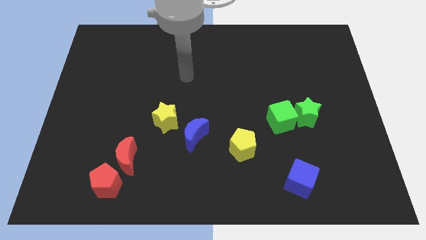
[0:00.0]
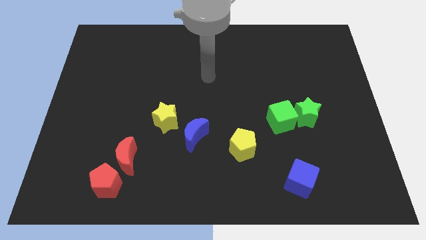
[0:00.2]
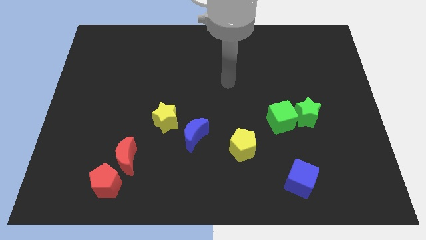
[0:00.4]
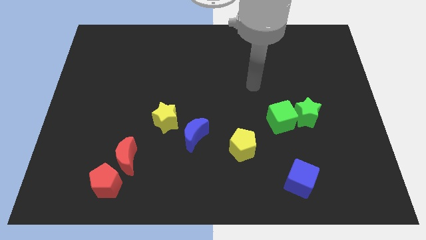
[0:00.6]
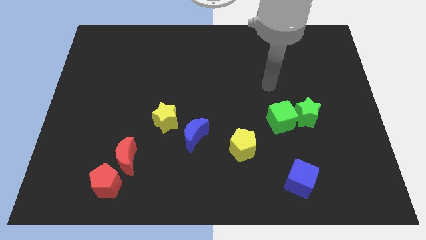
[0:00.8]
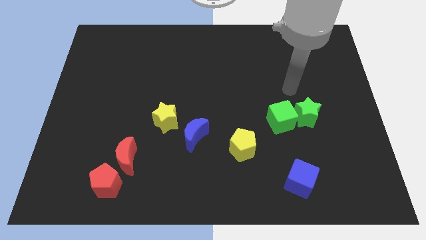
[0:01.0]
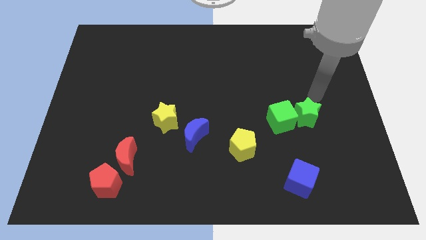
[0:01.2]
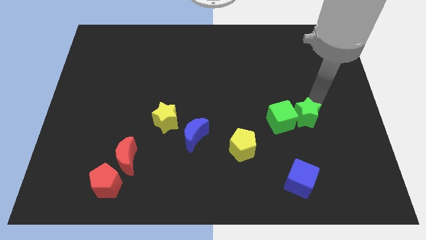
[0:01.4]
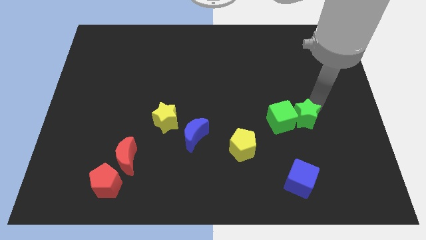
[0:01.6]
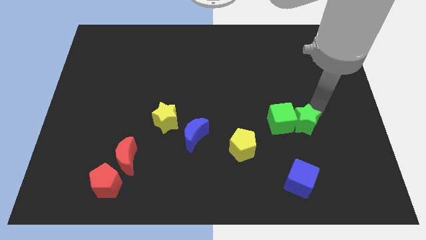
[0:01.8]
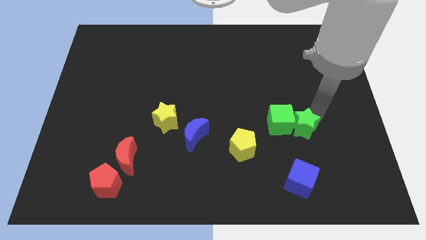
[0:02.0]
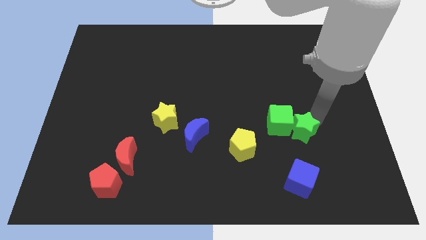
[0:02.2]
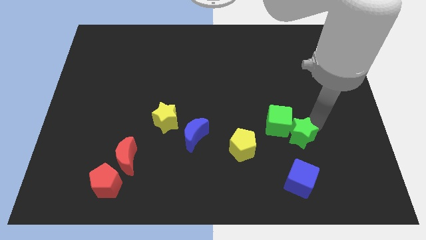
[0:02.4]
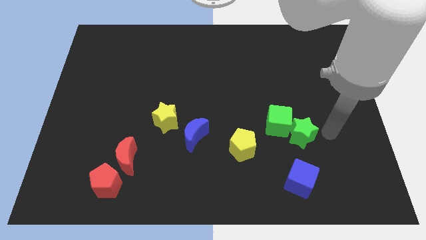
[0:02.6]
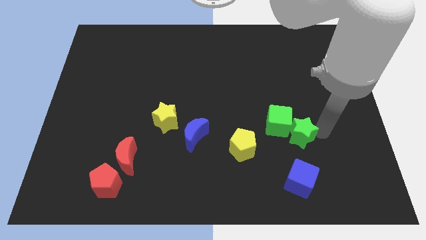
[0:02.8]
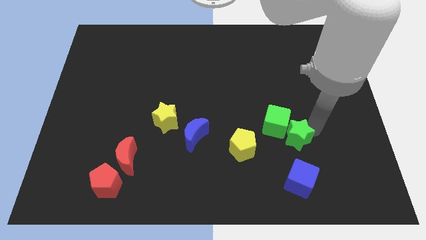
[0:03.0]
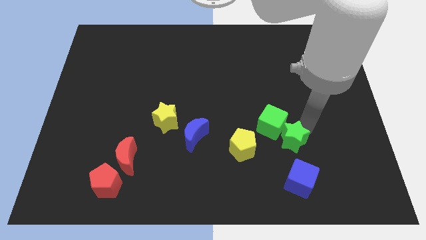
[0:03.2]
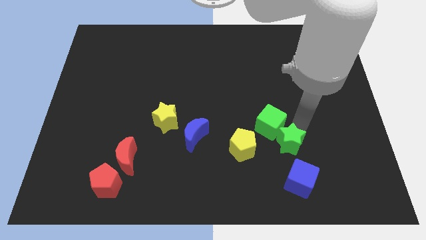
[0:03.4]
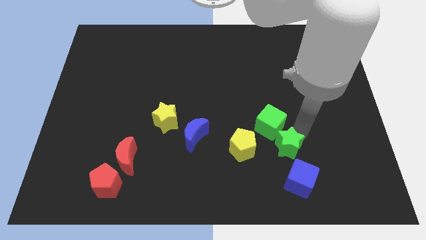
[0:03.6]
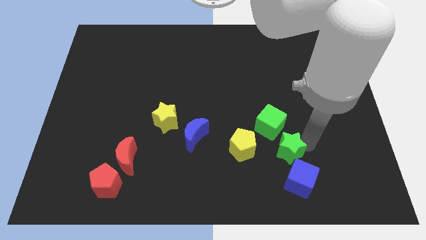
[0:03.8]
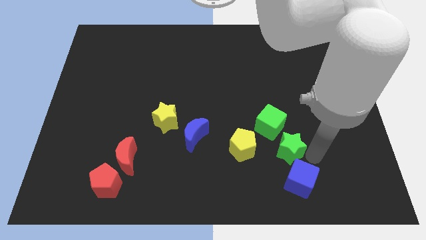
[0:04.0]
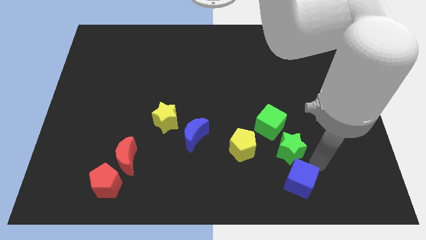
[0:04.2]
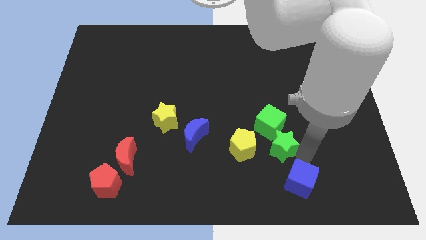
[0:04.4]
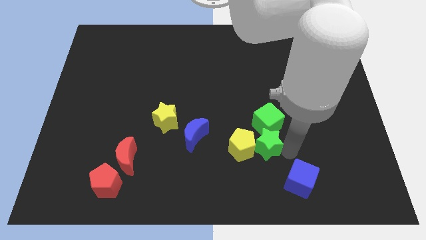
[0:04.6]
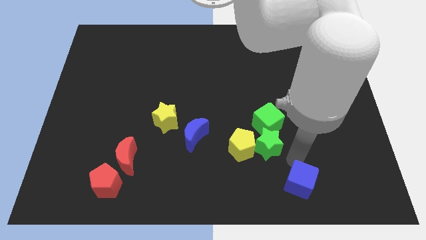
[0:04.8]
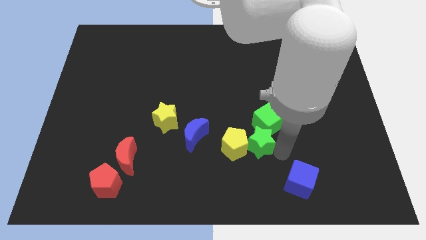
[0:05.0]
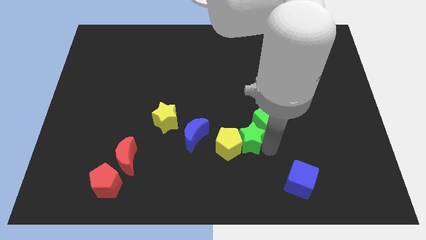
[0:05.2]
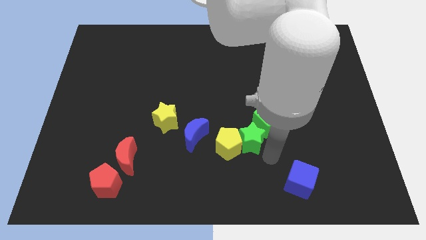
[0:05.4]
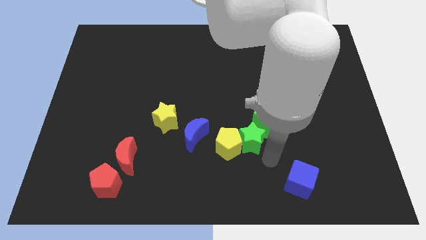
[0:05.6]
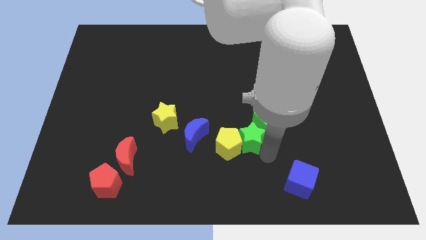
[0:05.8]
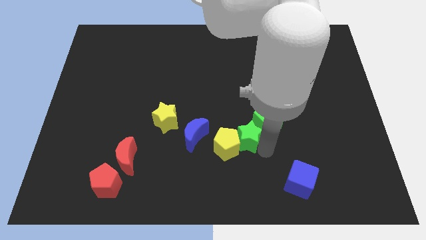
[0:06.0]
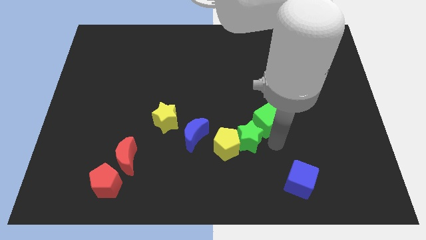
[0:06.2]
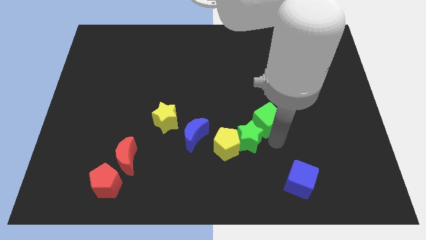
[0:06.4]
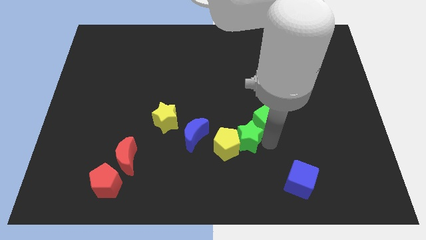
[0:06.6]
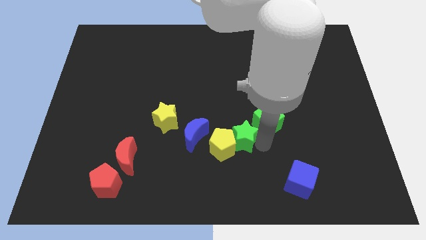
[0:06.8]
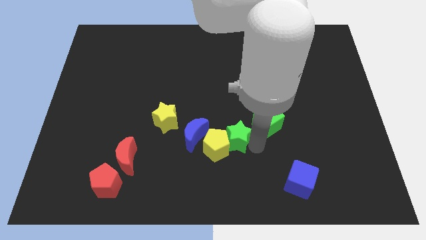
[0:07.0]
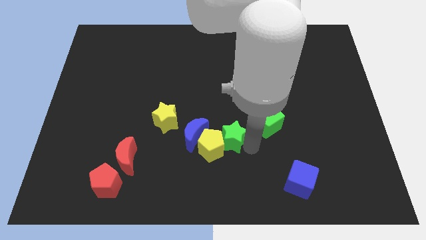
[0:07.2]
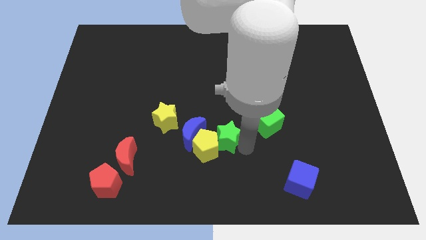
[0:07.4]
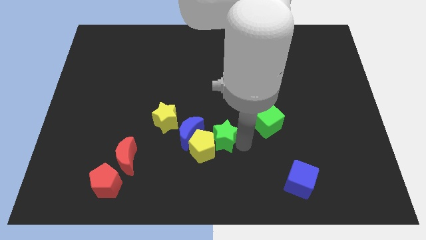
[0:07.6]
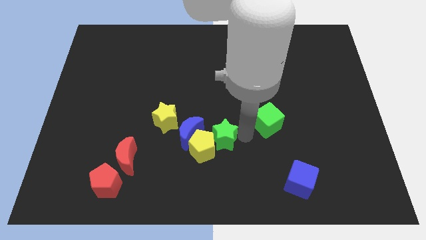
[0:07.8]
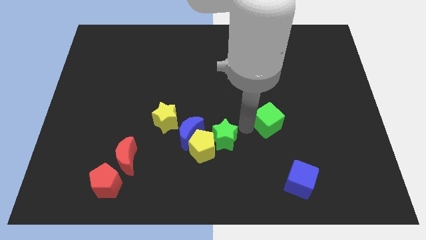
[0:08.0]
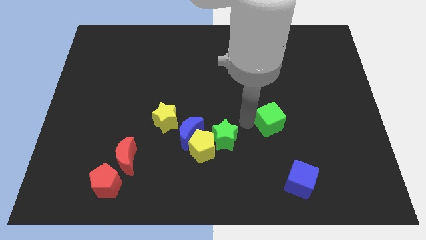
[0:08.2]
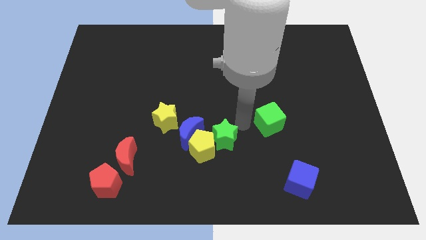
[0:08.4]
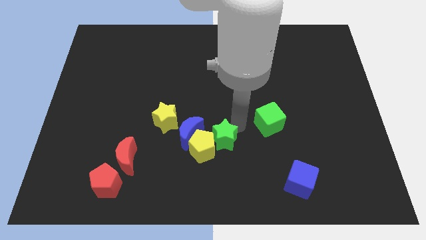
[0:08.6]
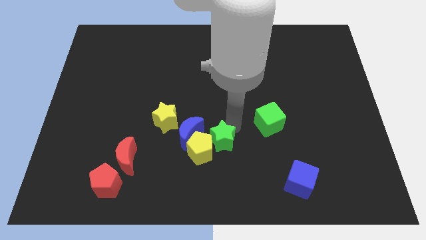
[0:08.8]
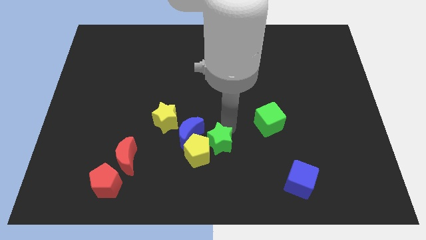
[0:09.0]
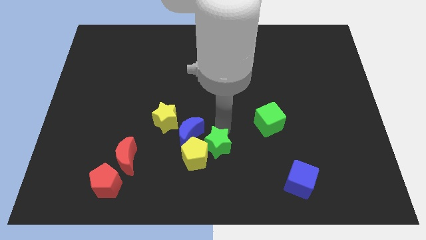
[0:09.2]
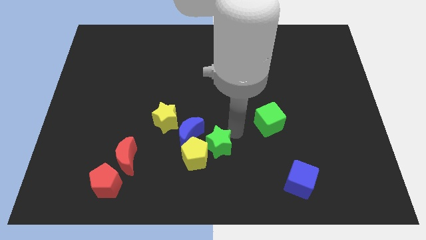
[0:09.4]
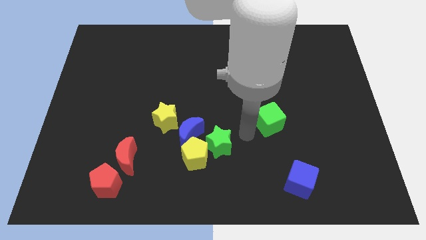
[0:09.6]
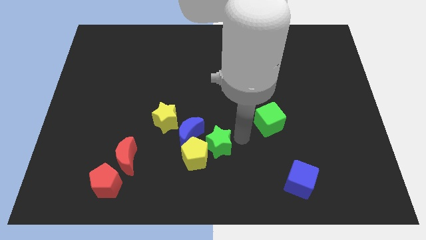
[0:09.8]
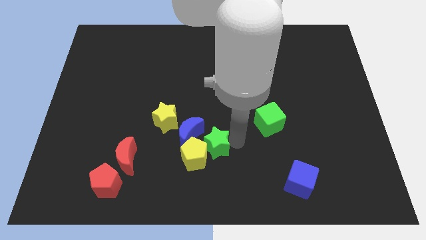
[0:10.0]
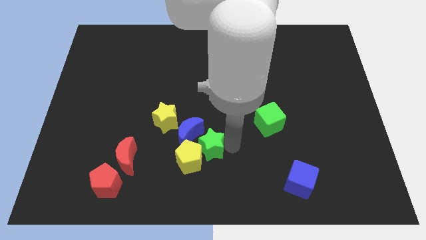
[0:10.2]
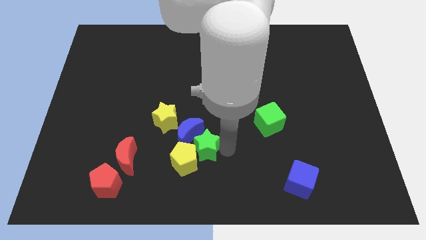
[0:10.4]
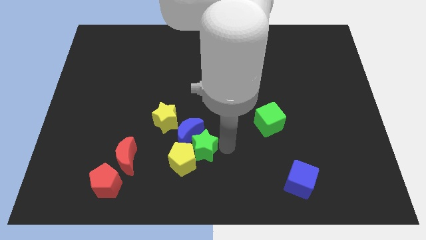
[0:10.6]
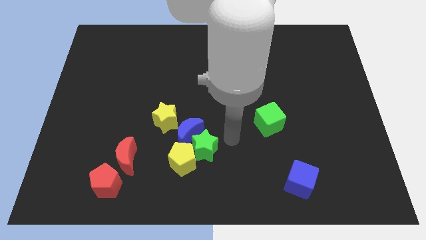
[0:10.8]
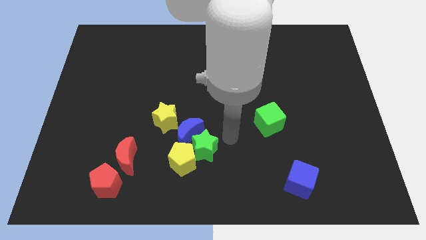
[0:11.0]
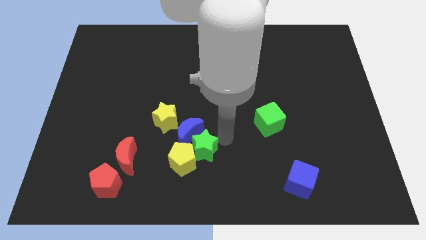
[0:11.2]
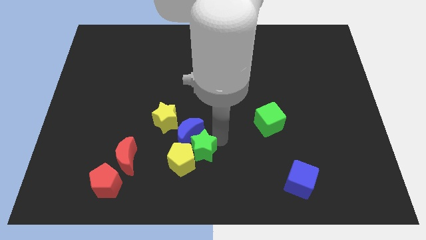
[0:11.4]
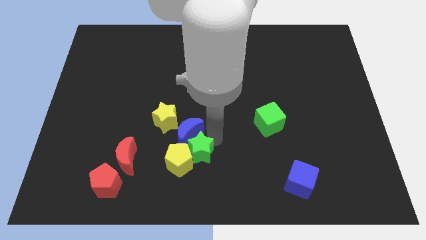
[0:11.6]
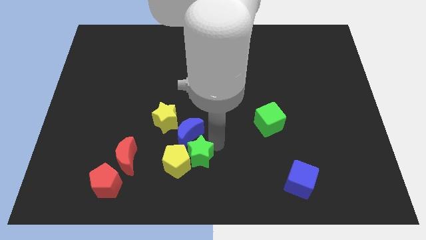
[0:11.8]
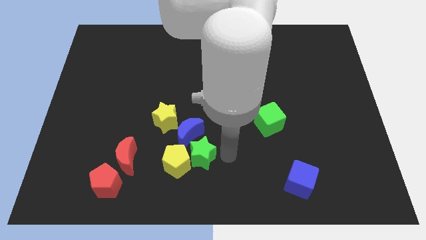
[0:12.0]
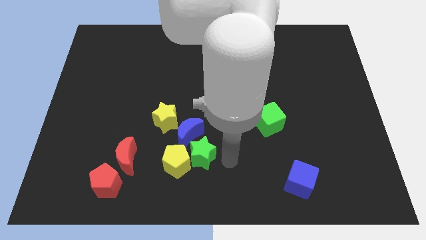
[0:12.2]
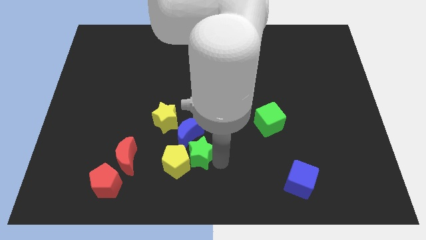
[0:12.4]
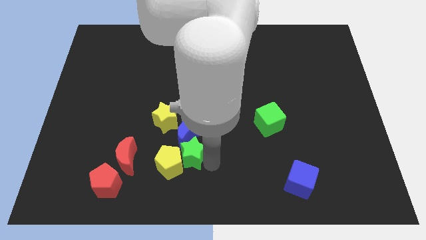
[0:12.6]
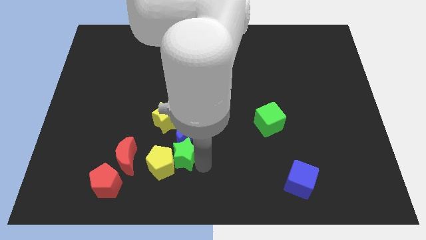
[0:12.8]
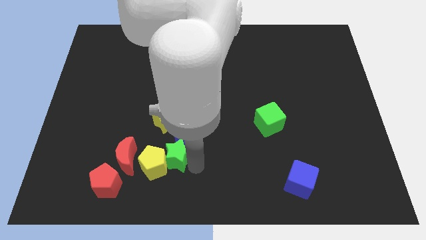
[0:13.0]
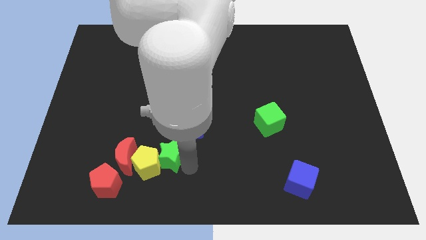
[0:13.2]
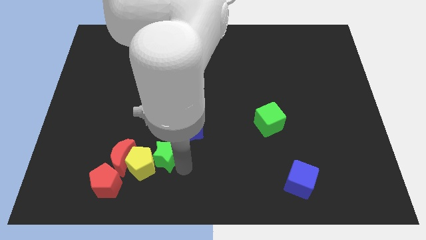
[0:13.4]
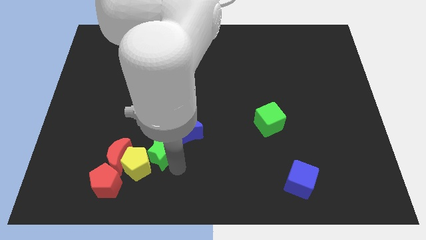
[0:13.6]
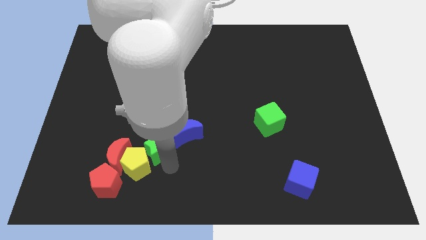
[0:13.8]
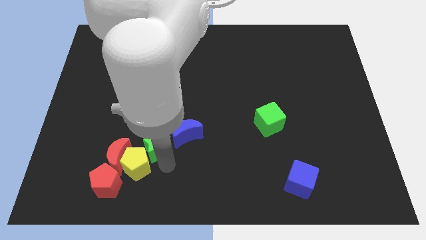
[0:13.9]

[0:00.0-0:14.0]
slide the green star to the bottom left of the yellow star
